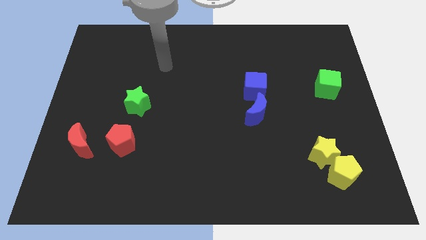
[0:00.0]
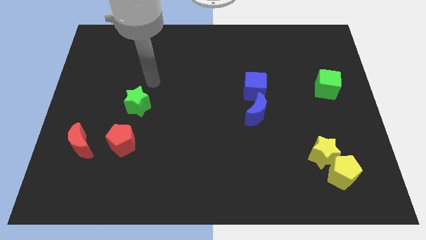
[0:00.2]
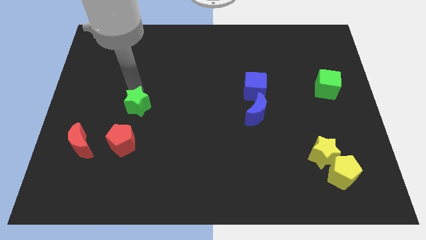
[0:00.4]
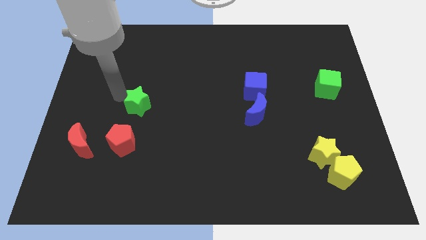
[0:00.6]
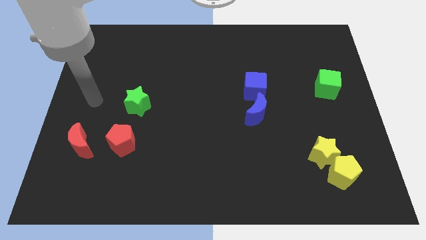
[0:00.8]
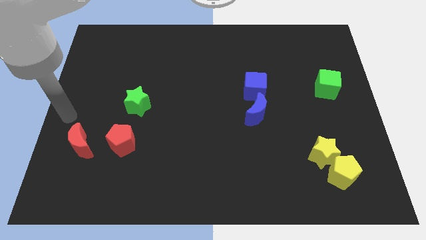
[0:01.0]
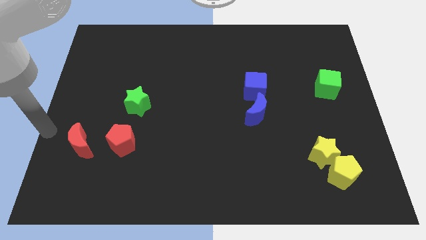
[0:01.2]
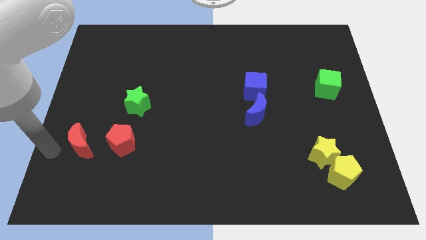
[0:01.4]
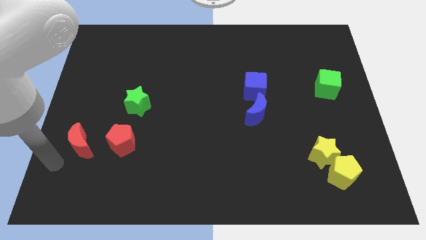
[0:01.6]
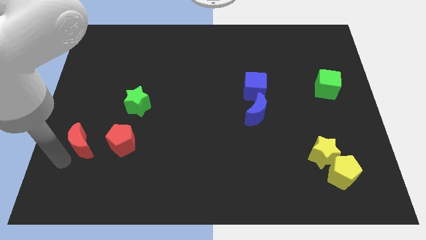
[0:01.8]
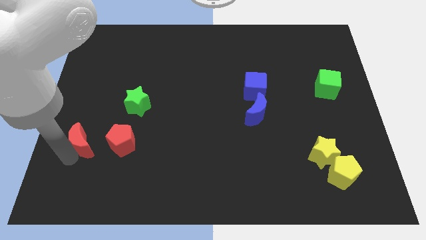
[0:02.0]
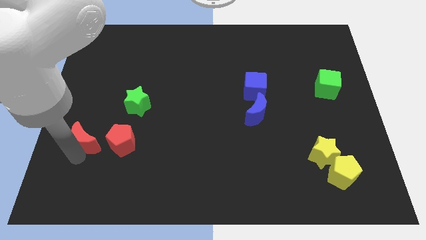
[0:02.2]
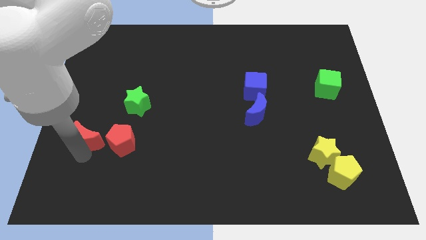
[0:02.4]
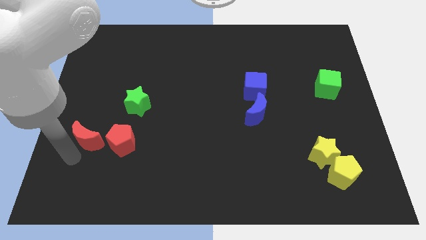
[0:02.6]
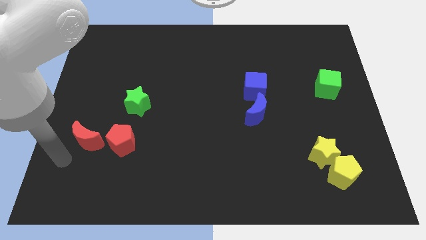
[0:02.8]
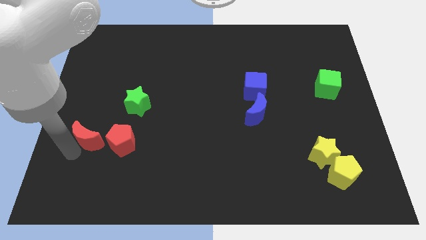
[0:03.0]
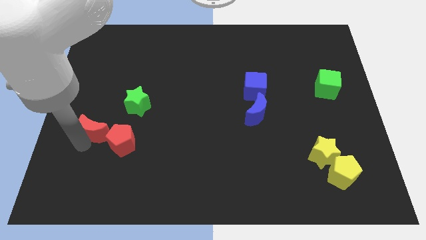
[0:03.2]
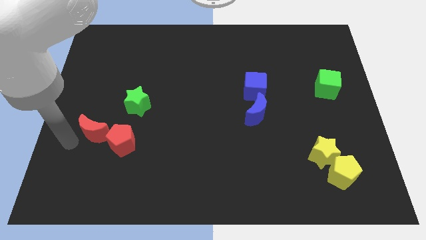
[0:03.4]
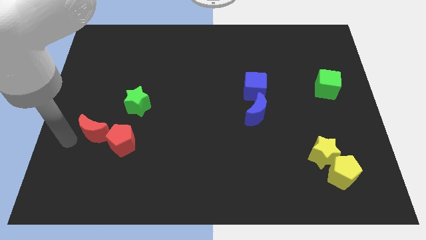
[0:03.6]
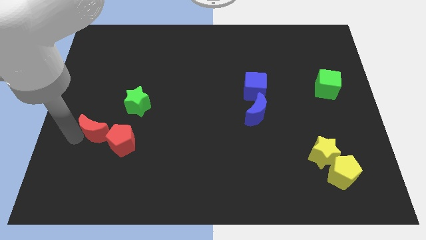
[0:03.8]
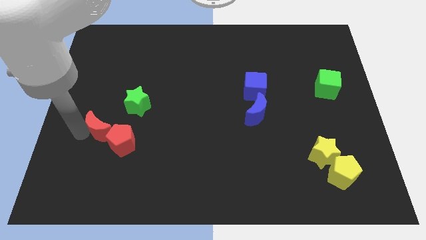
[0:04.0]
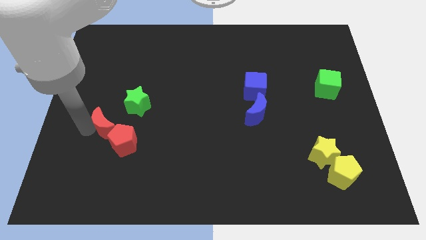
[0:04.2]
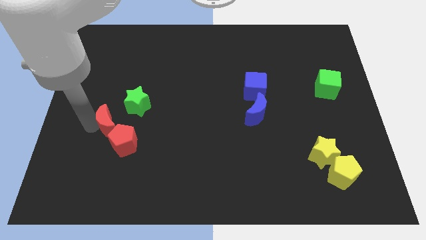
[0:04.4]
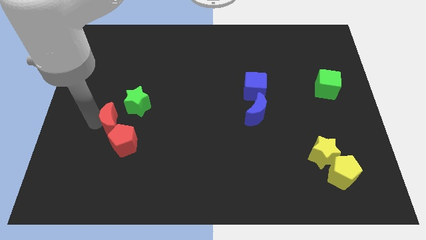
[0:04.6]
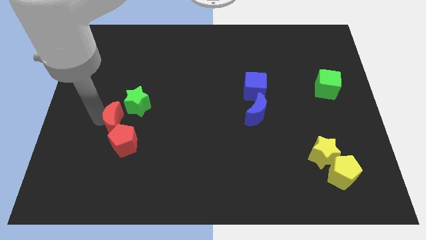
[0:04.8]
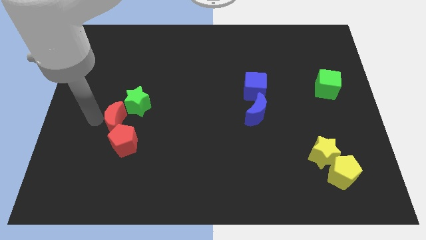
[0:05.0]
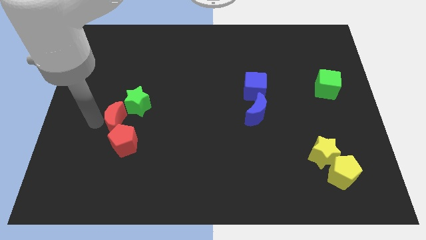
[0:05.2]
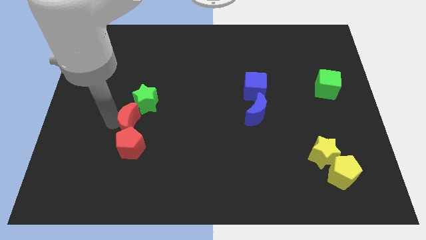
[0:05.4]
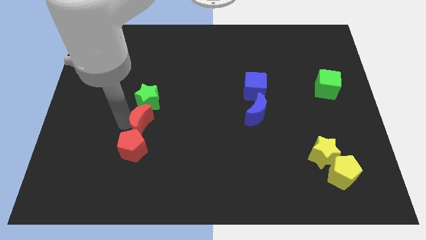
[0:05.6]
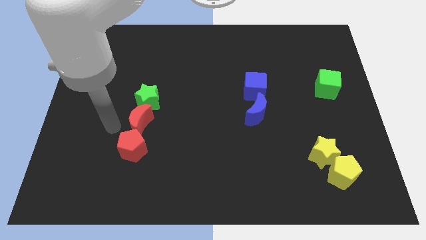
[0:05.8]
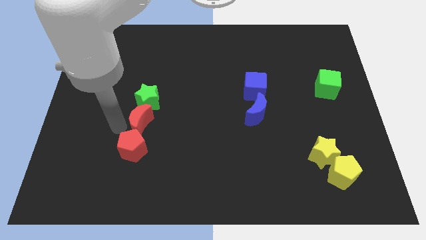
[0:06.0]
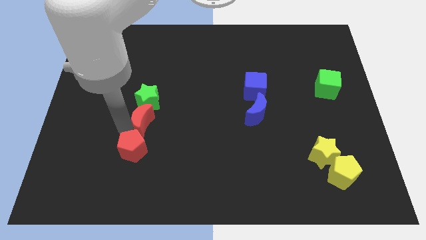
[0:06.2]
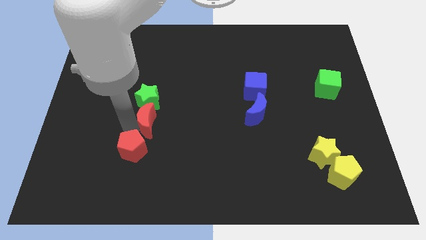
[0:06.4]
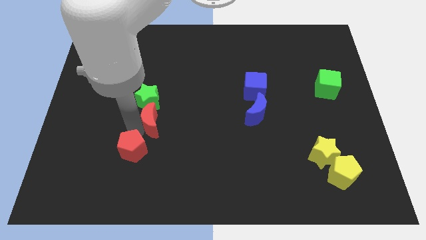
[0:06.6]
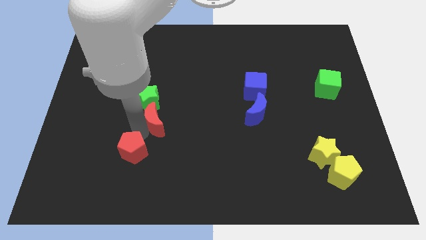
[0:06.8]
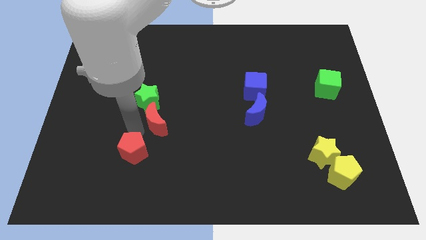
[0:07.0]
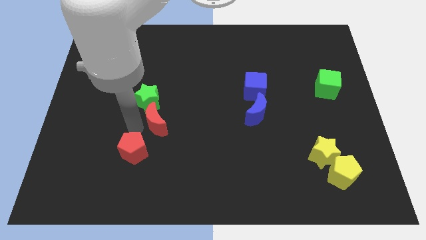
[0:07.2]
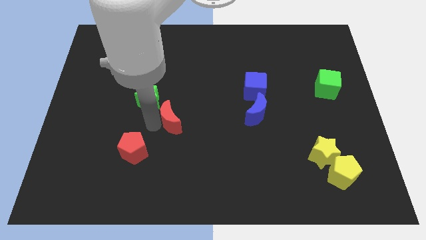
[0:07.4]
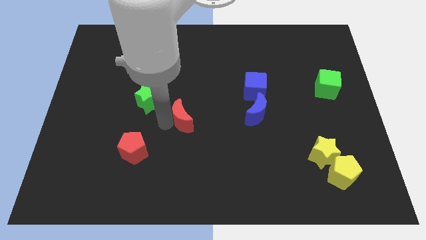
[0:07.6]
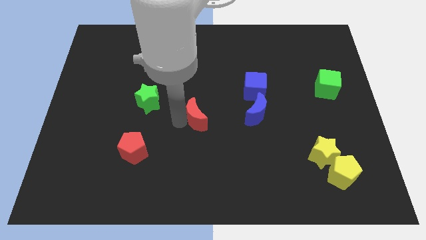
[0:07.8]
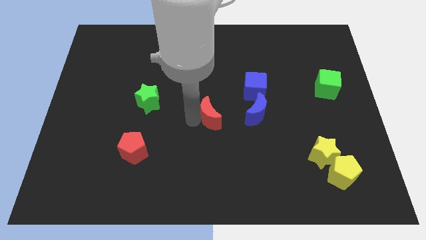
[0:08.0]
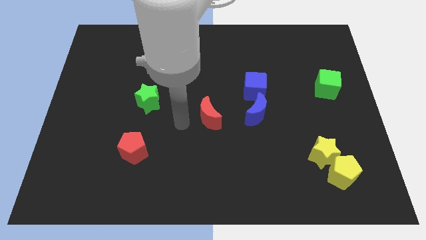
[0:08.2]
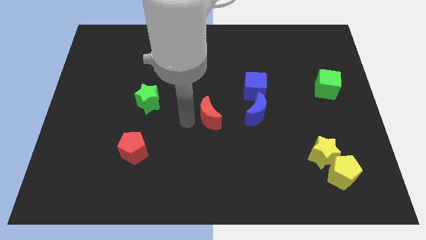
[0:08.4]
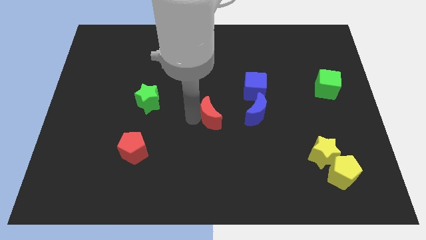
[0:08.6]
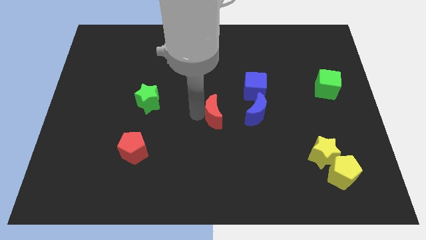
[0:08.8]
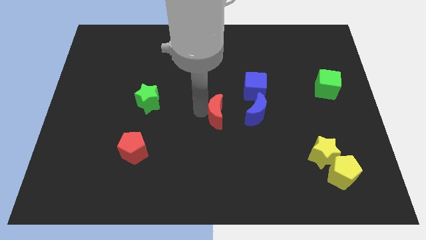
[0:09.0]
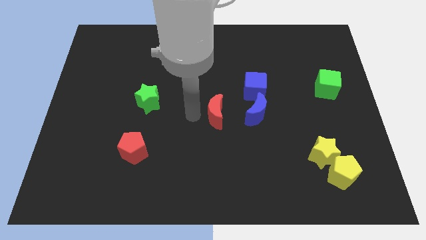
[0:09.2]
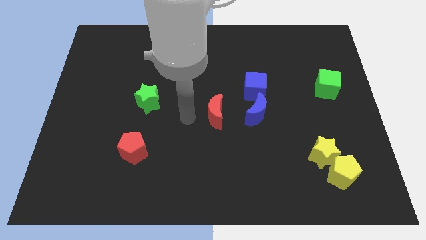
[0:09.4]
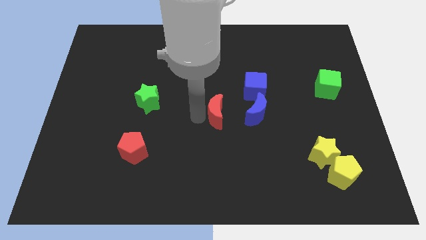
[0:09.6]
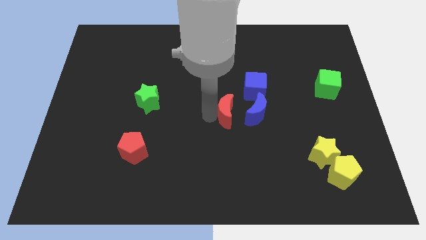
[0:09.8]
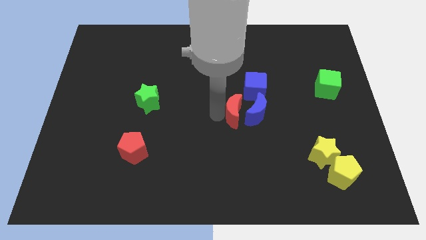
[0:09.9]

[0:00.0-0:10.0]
push the red moon next to the blue moon

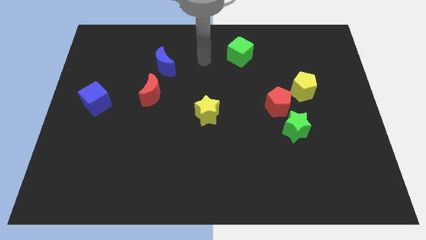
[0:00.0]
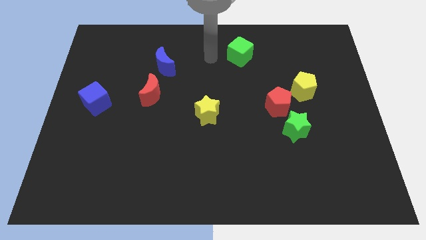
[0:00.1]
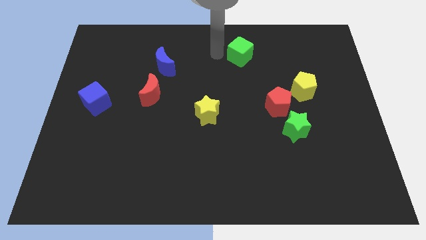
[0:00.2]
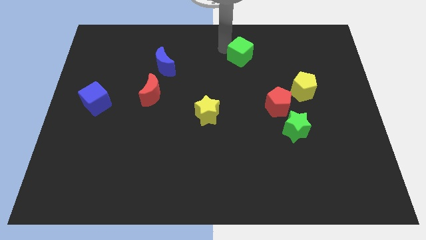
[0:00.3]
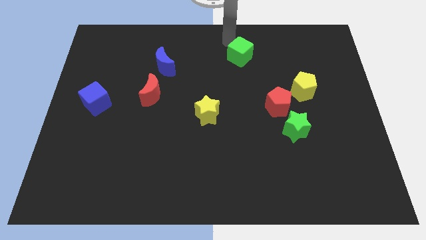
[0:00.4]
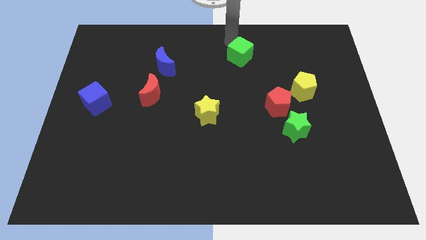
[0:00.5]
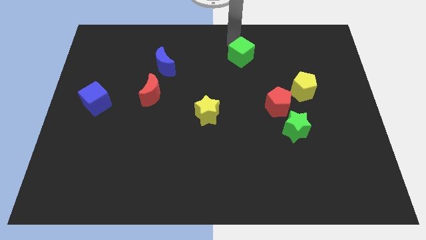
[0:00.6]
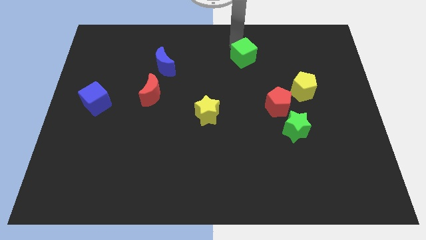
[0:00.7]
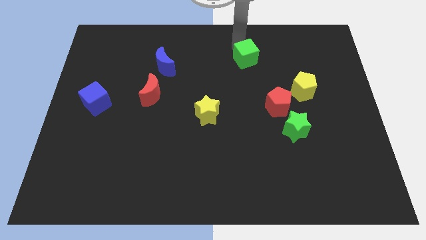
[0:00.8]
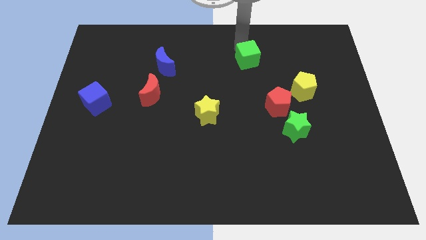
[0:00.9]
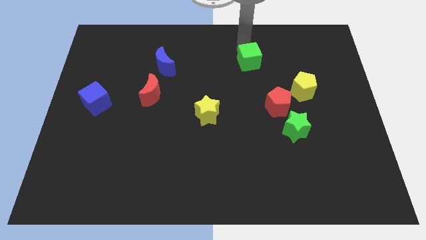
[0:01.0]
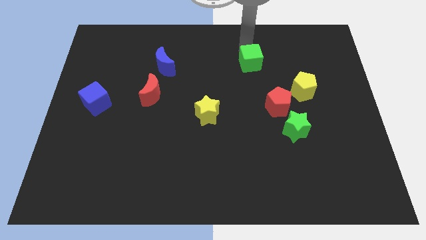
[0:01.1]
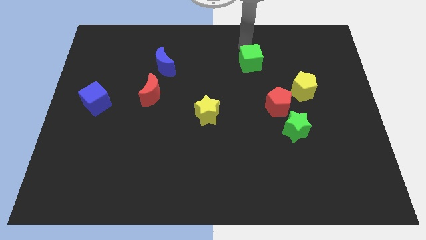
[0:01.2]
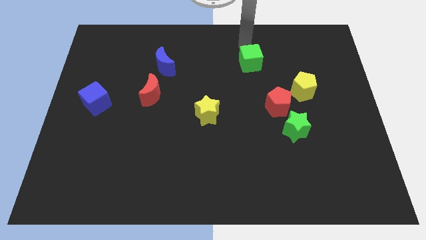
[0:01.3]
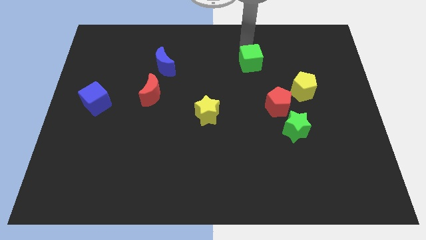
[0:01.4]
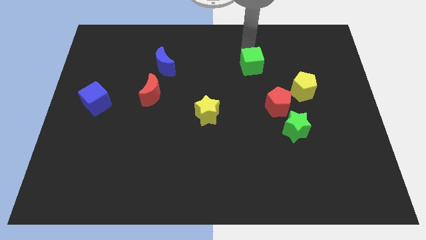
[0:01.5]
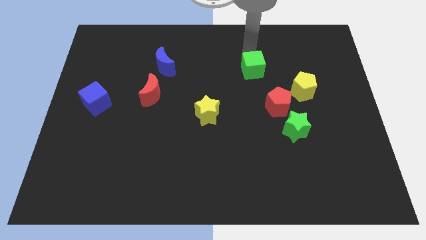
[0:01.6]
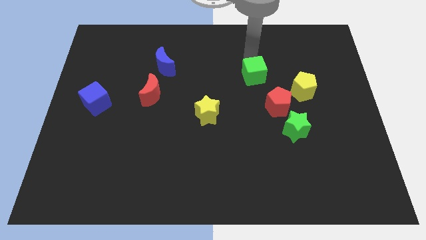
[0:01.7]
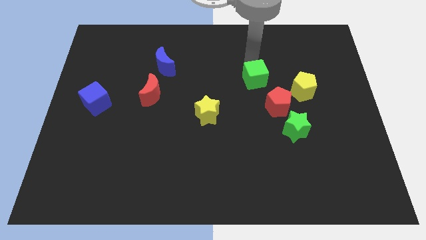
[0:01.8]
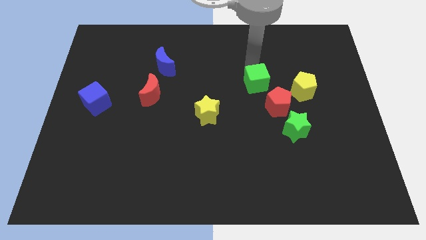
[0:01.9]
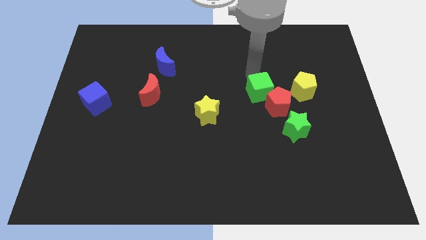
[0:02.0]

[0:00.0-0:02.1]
push the green cube towards the red pentagon
